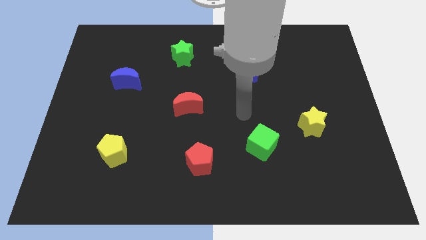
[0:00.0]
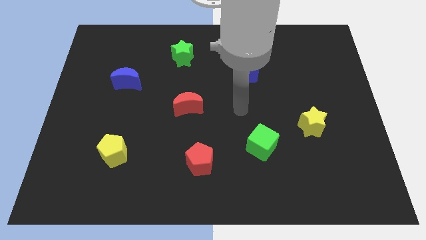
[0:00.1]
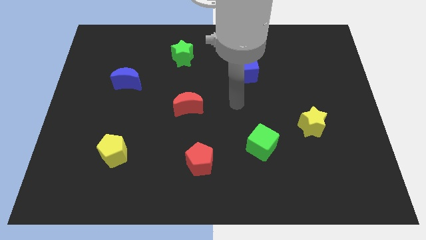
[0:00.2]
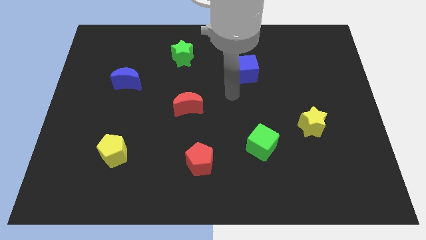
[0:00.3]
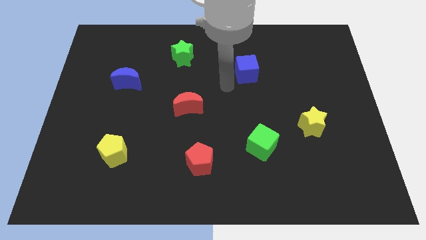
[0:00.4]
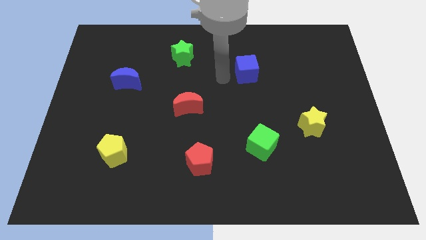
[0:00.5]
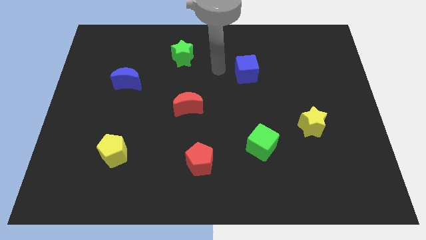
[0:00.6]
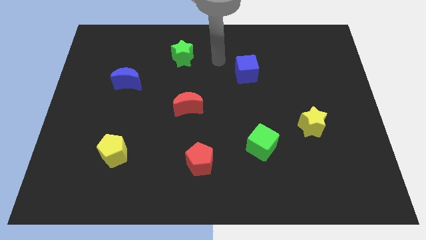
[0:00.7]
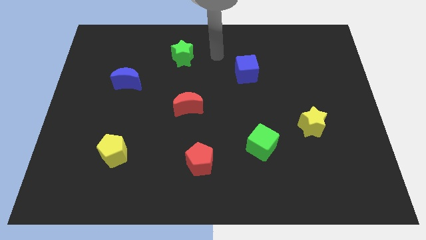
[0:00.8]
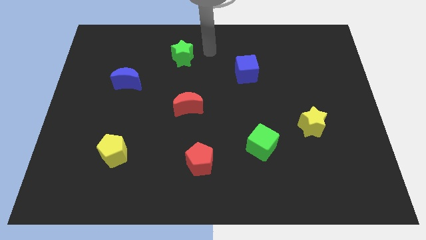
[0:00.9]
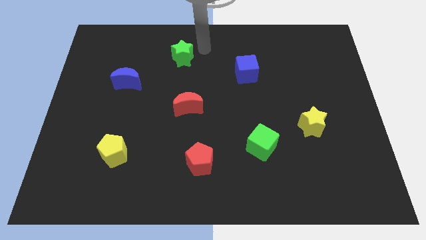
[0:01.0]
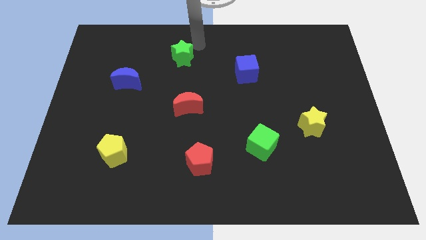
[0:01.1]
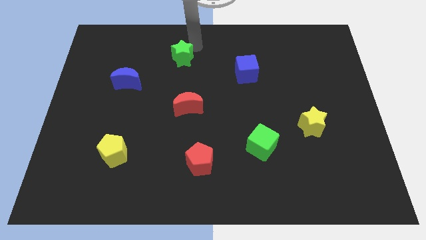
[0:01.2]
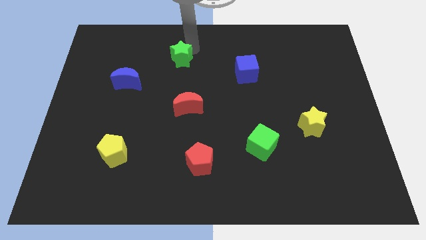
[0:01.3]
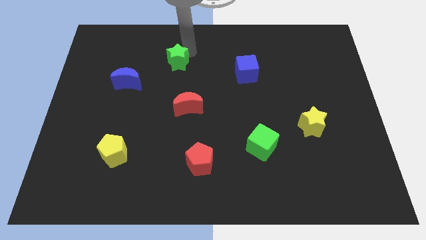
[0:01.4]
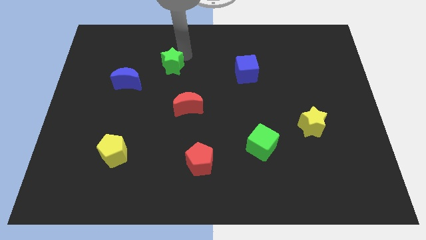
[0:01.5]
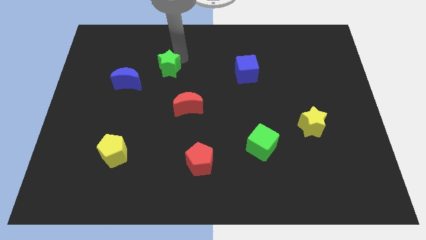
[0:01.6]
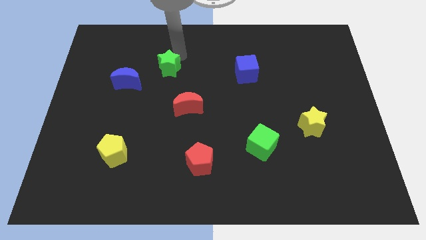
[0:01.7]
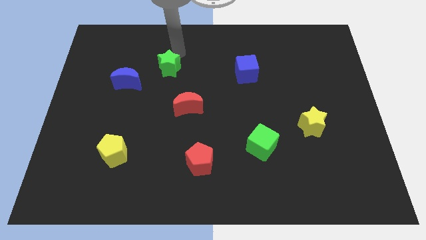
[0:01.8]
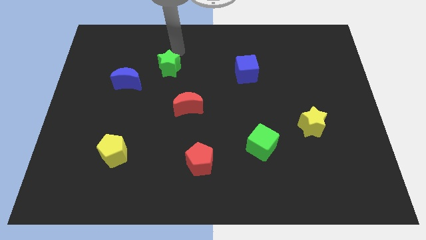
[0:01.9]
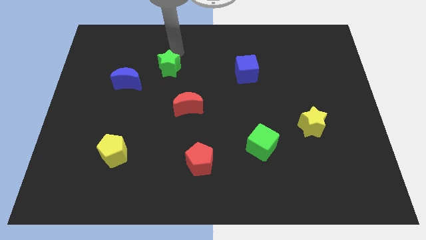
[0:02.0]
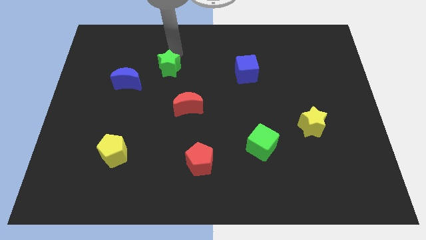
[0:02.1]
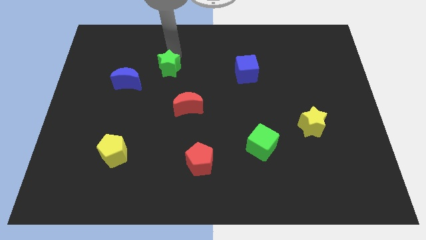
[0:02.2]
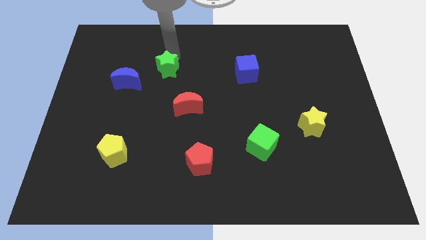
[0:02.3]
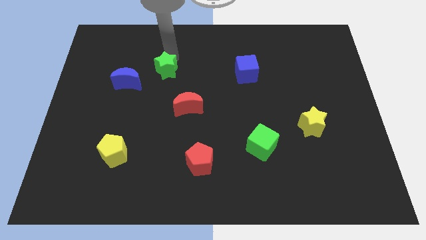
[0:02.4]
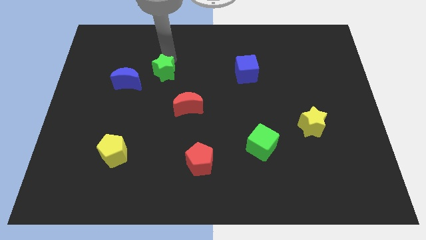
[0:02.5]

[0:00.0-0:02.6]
slide the green star down and then left a little bit

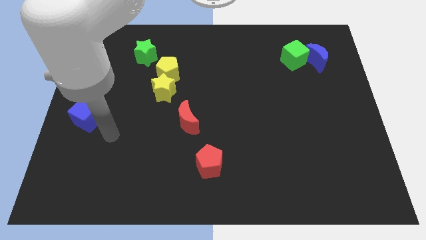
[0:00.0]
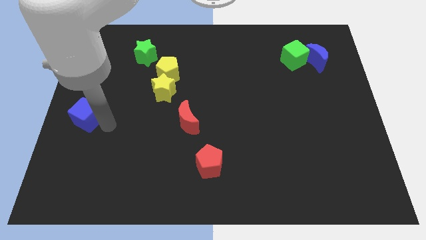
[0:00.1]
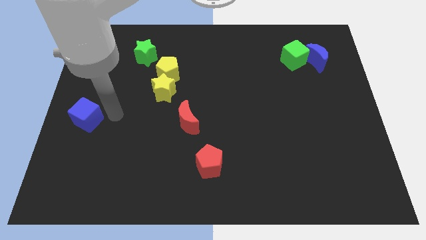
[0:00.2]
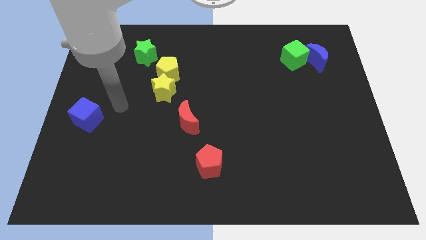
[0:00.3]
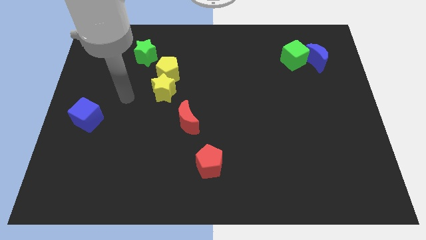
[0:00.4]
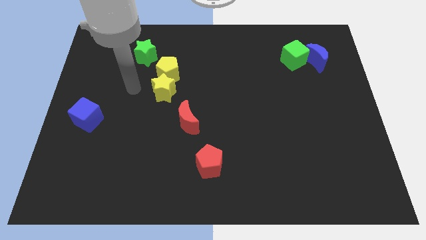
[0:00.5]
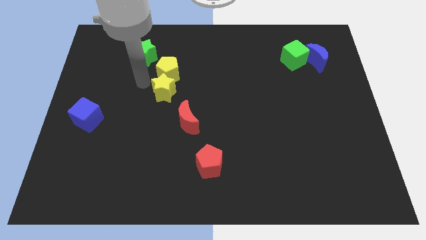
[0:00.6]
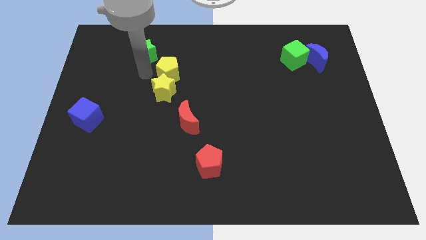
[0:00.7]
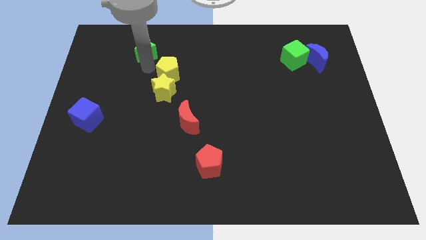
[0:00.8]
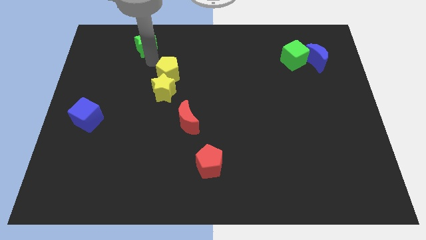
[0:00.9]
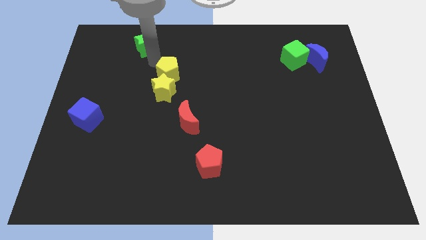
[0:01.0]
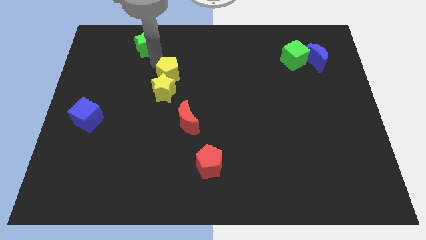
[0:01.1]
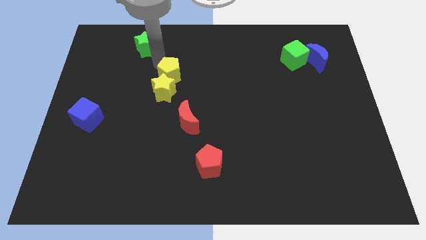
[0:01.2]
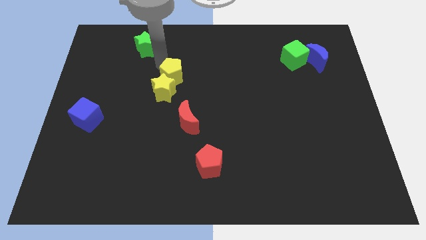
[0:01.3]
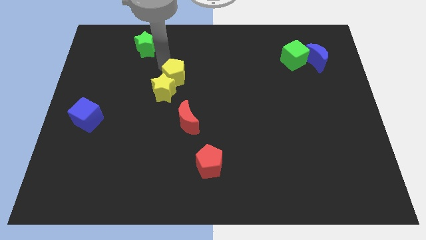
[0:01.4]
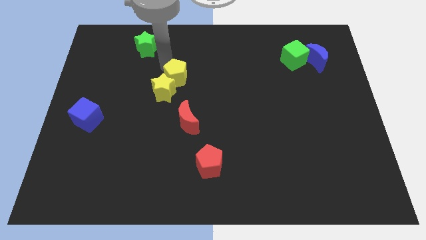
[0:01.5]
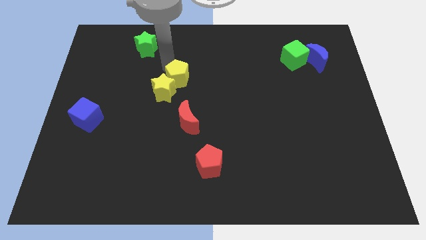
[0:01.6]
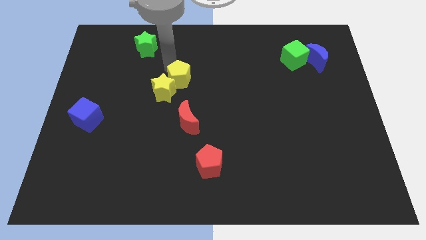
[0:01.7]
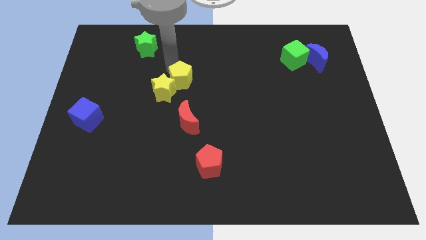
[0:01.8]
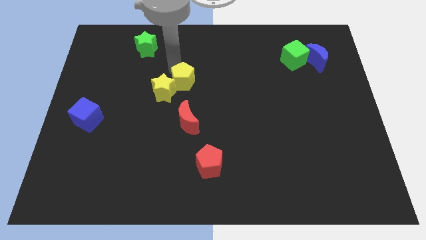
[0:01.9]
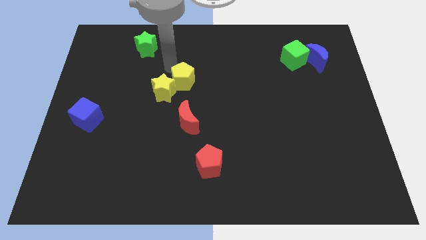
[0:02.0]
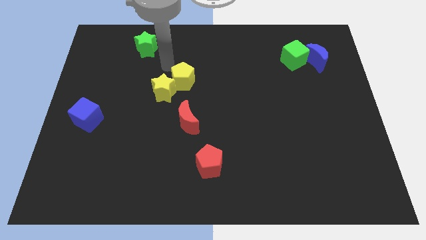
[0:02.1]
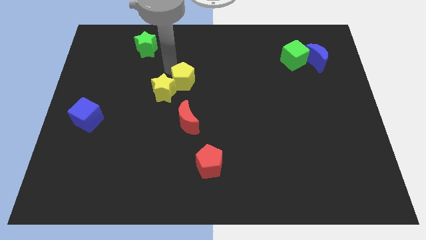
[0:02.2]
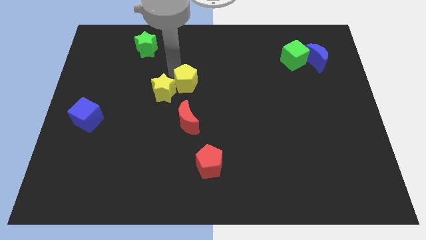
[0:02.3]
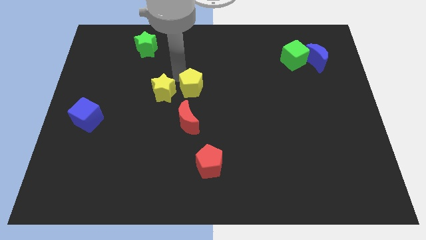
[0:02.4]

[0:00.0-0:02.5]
slide the yellow pentagon down and right a bit

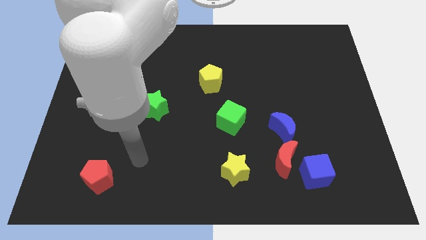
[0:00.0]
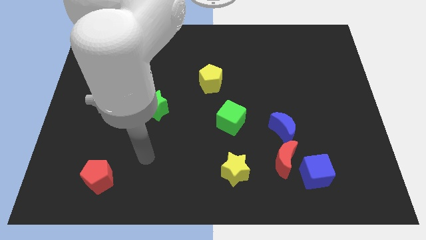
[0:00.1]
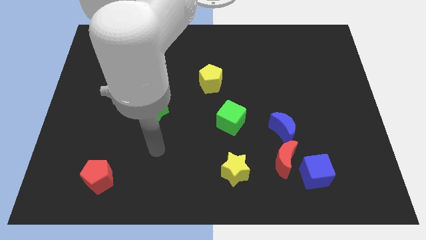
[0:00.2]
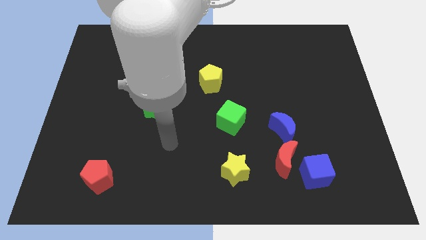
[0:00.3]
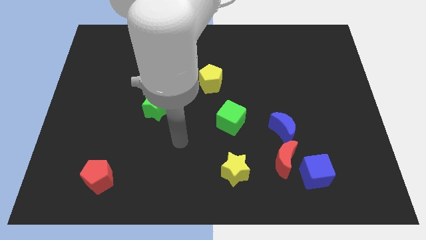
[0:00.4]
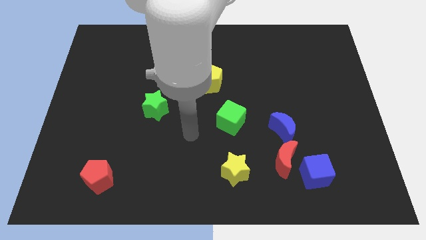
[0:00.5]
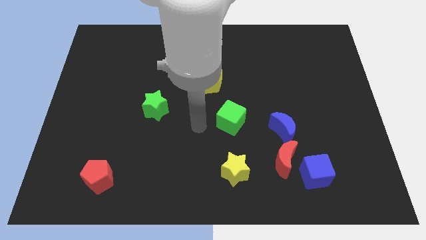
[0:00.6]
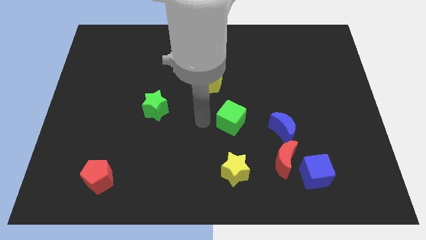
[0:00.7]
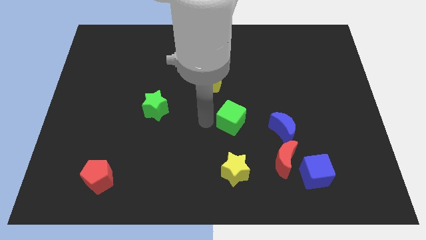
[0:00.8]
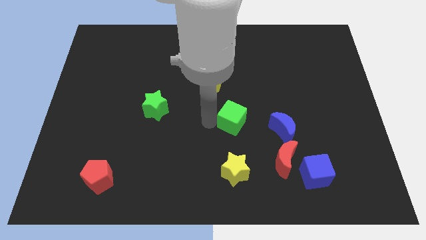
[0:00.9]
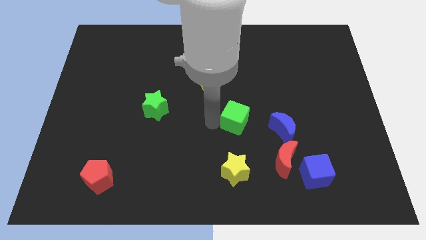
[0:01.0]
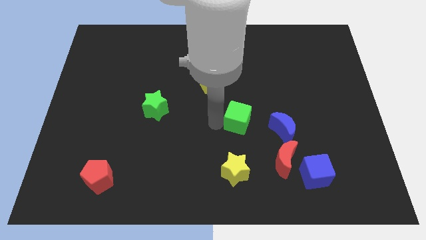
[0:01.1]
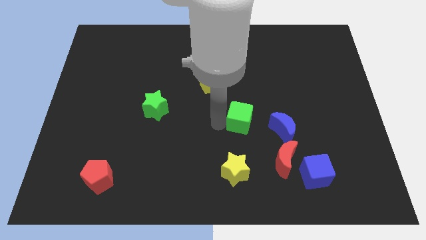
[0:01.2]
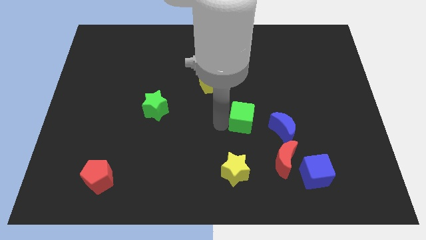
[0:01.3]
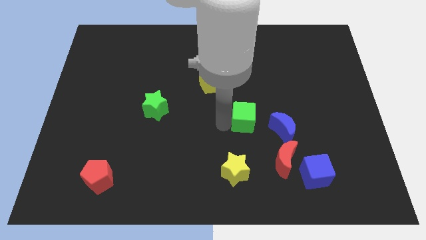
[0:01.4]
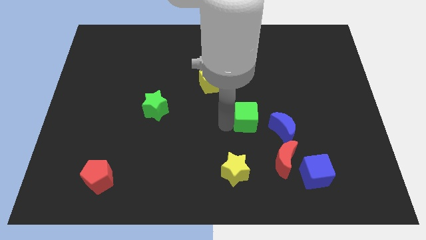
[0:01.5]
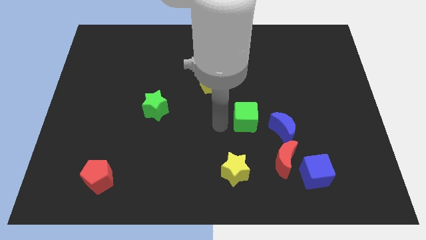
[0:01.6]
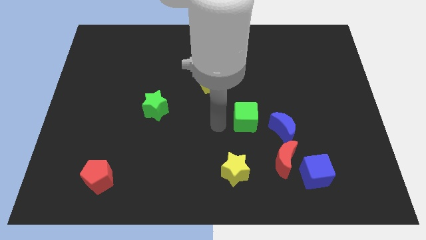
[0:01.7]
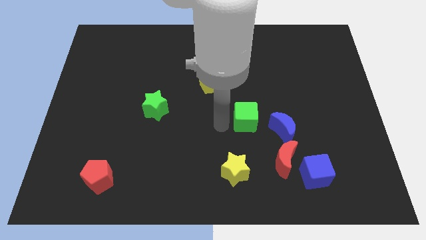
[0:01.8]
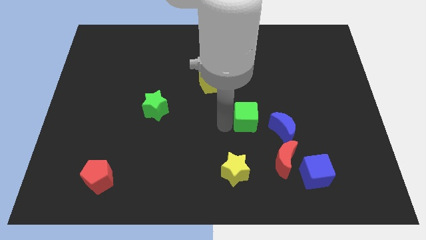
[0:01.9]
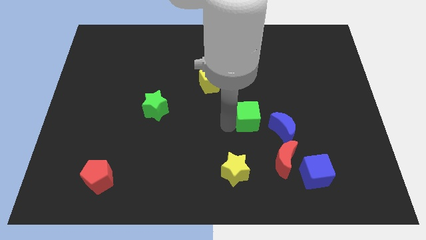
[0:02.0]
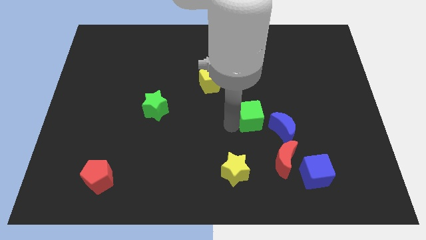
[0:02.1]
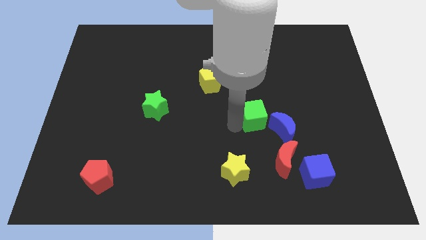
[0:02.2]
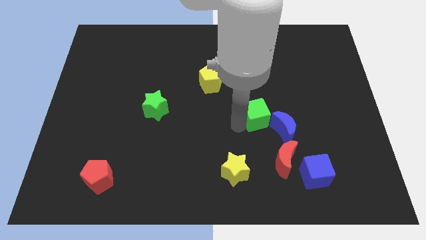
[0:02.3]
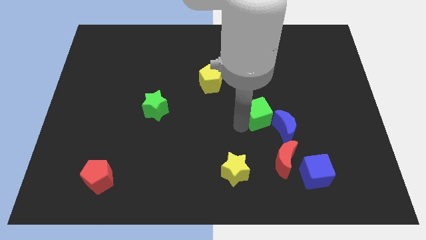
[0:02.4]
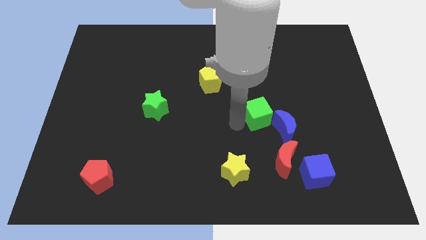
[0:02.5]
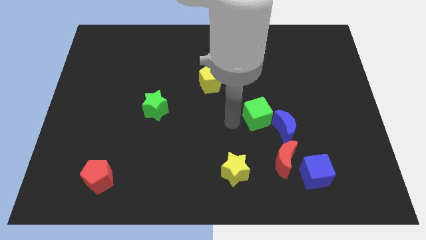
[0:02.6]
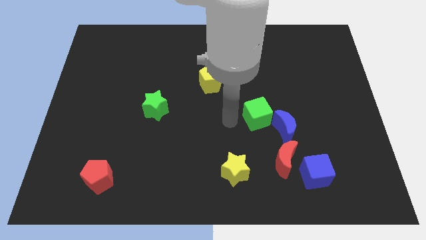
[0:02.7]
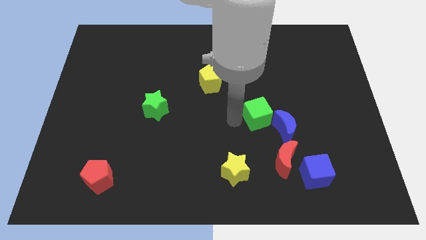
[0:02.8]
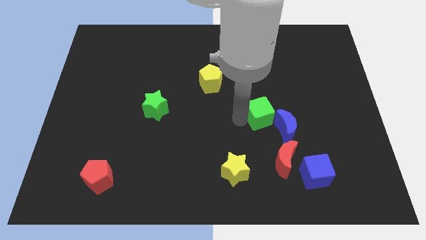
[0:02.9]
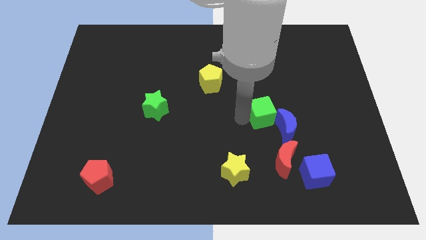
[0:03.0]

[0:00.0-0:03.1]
push the green cube a bit right
